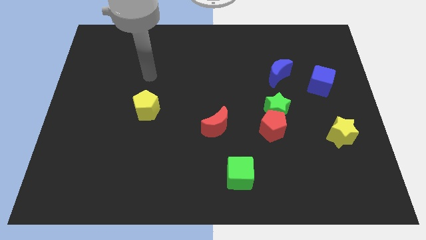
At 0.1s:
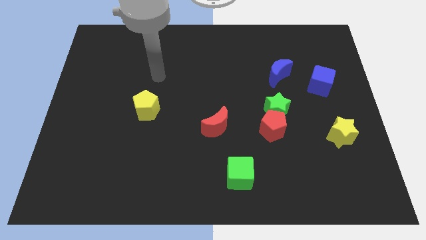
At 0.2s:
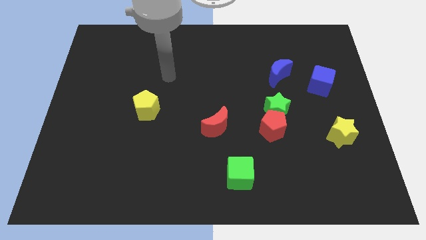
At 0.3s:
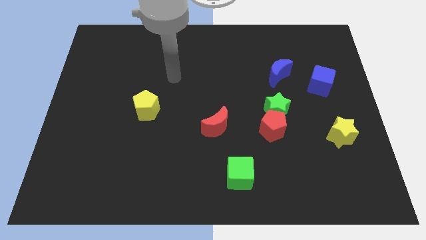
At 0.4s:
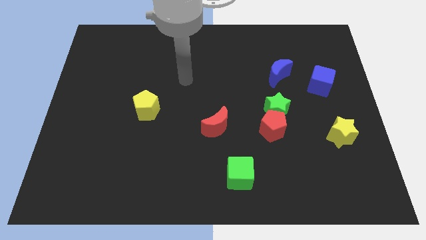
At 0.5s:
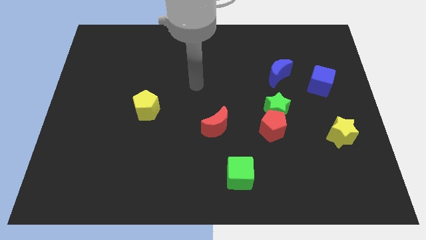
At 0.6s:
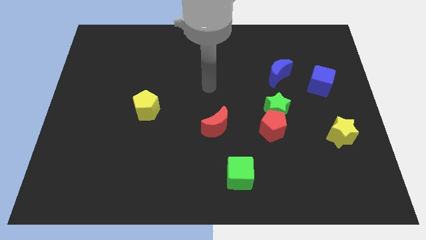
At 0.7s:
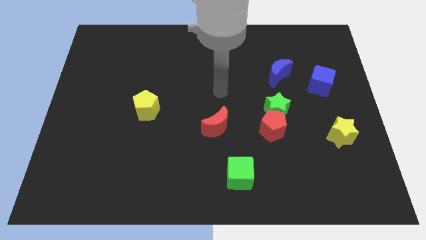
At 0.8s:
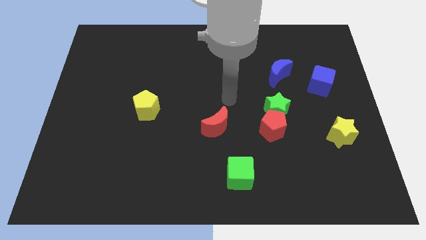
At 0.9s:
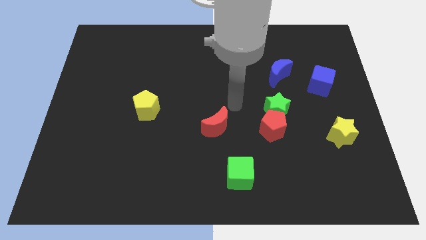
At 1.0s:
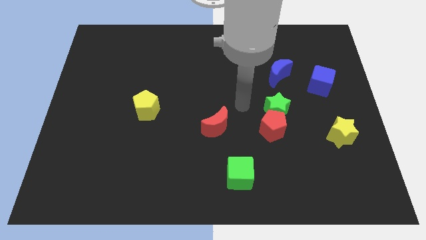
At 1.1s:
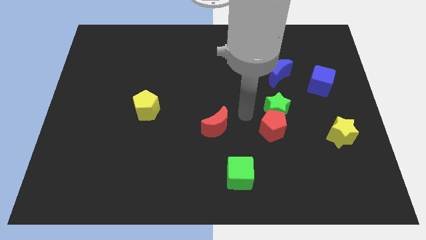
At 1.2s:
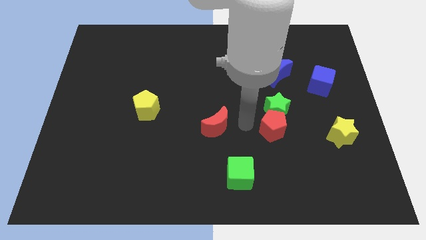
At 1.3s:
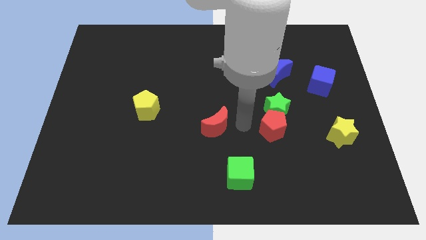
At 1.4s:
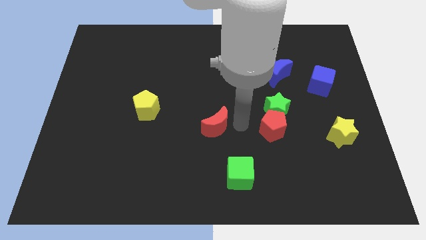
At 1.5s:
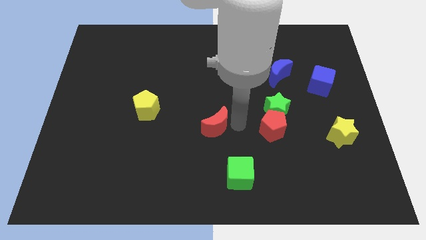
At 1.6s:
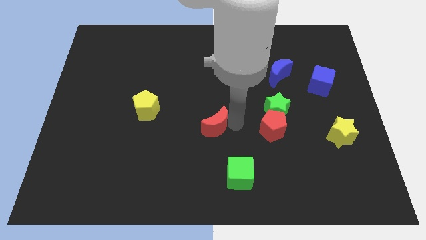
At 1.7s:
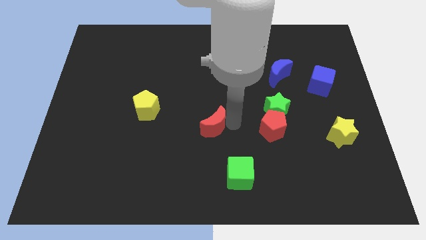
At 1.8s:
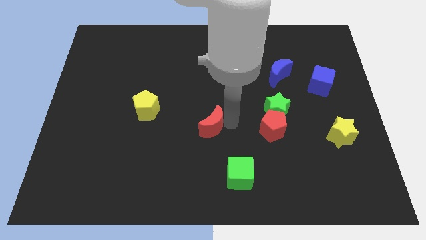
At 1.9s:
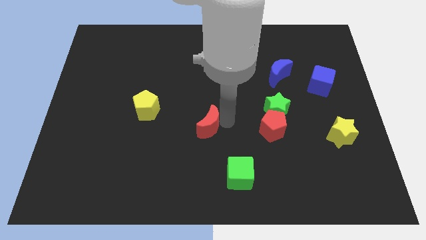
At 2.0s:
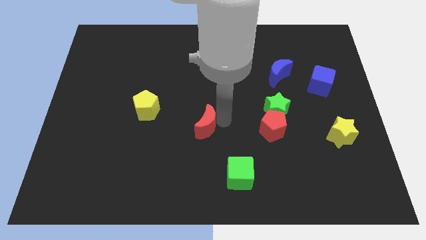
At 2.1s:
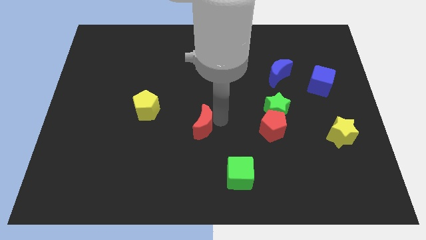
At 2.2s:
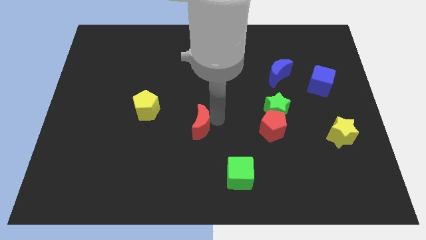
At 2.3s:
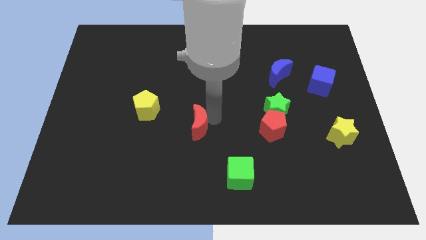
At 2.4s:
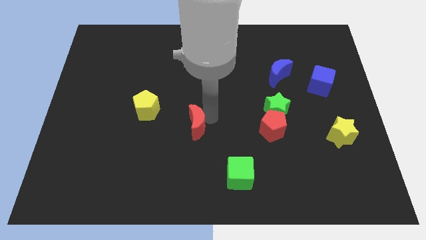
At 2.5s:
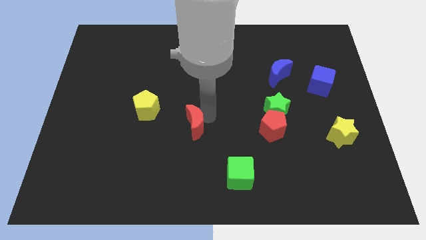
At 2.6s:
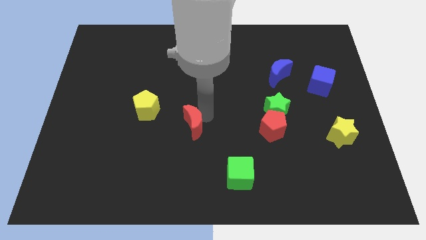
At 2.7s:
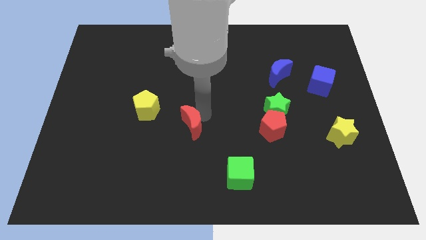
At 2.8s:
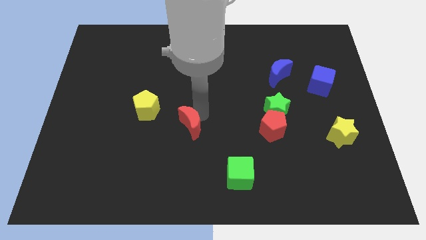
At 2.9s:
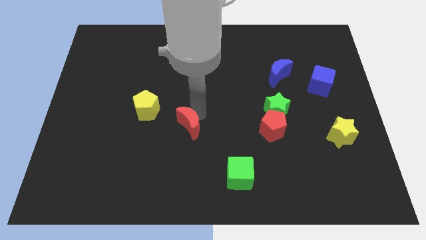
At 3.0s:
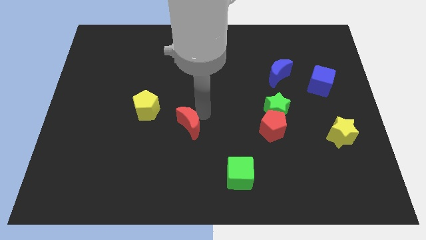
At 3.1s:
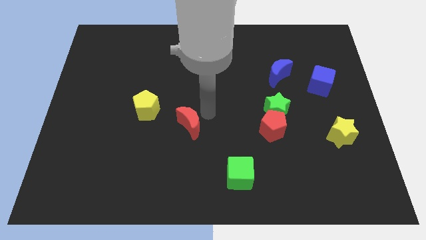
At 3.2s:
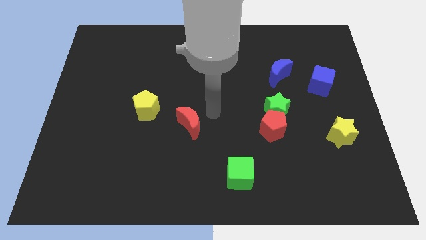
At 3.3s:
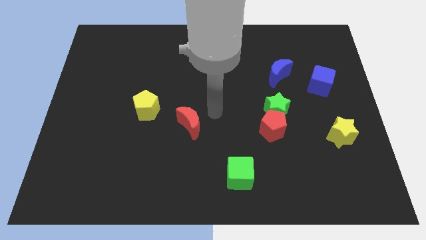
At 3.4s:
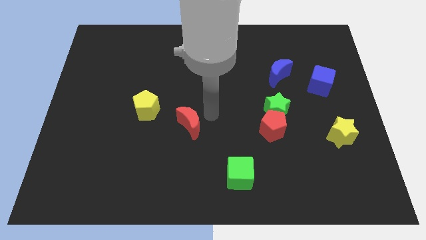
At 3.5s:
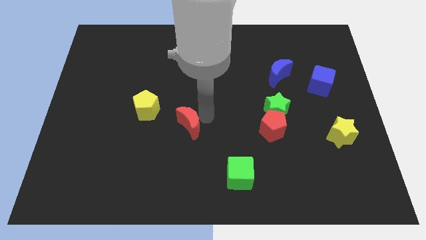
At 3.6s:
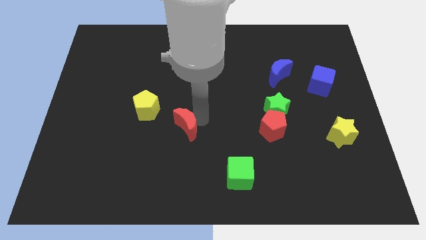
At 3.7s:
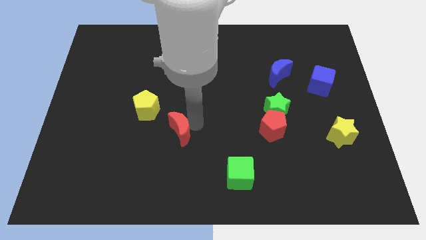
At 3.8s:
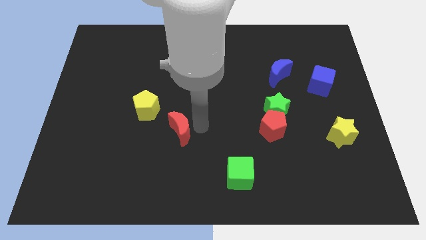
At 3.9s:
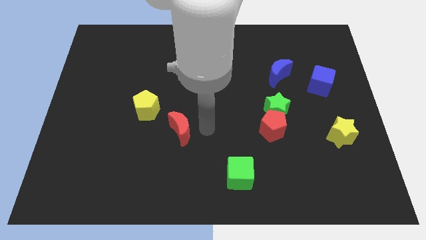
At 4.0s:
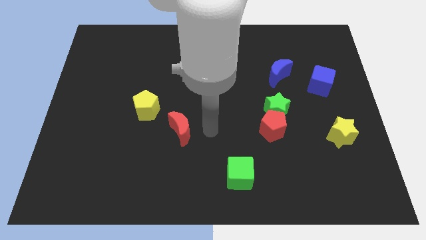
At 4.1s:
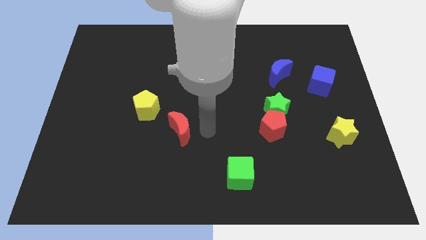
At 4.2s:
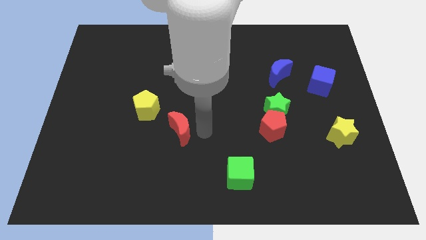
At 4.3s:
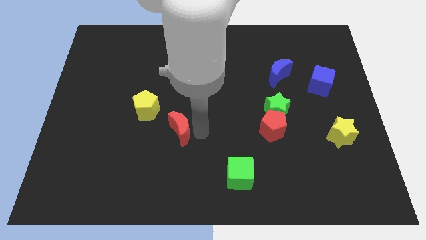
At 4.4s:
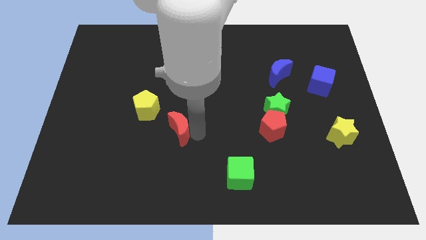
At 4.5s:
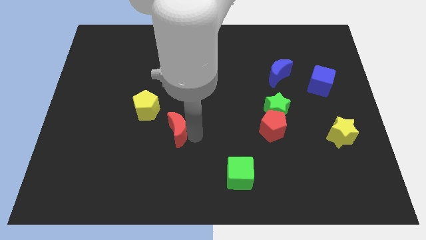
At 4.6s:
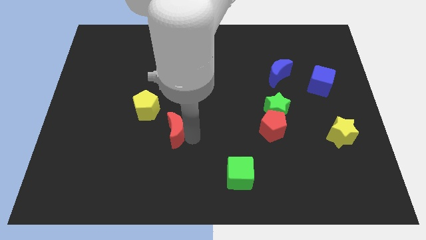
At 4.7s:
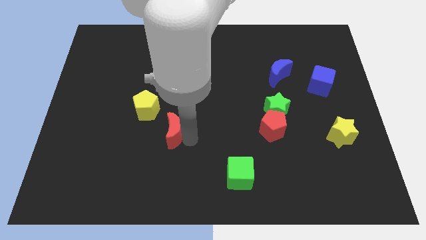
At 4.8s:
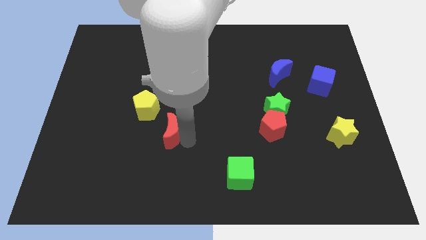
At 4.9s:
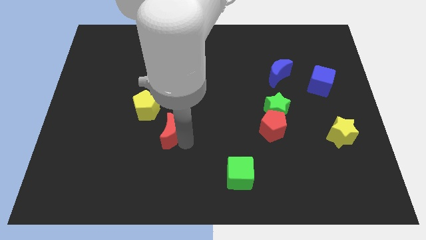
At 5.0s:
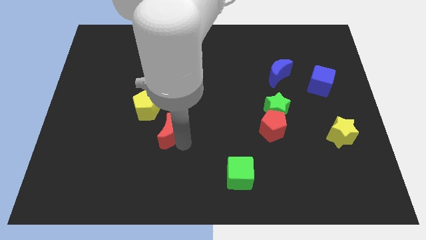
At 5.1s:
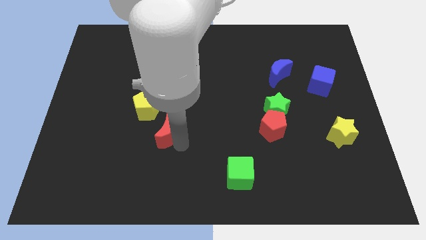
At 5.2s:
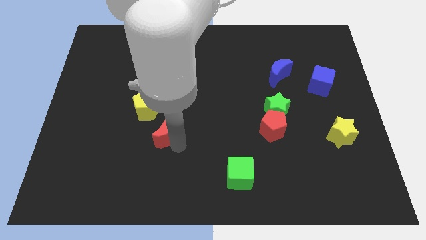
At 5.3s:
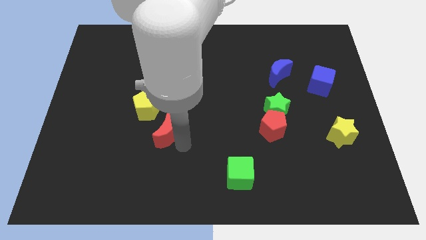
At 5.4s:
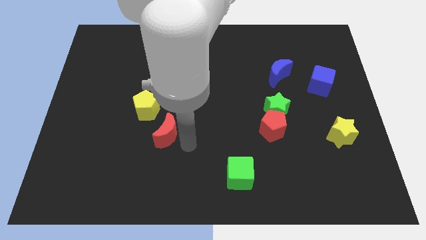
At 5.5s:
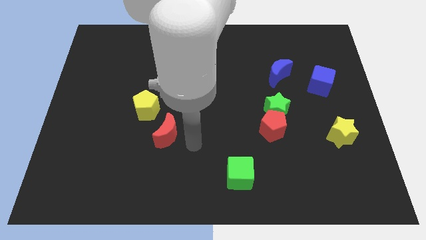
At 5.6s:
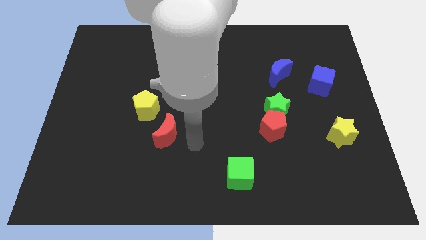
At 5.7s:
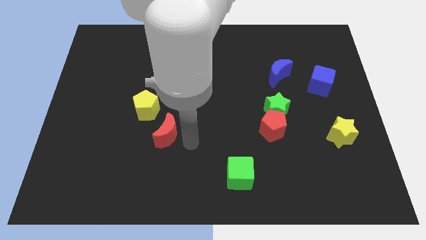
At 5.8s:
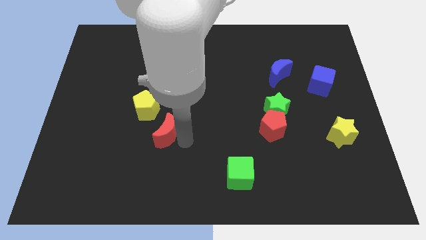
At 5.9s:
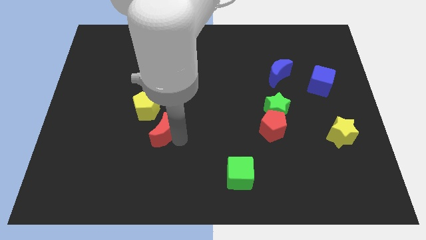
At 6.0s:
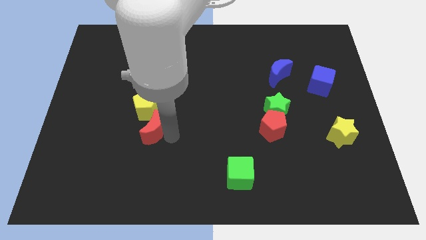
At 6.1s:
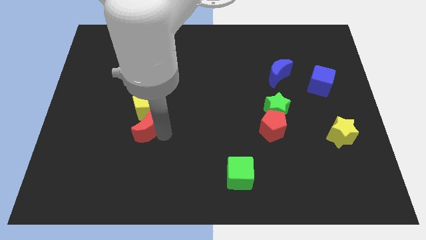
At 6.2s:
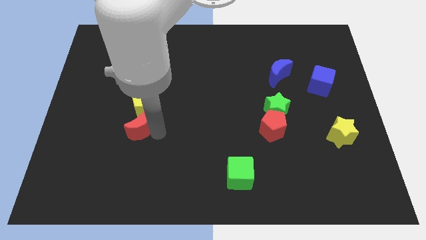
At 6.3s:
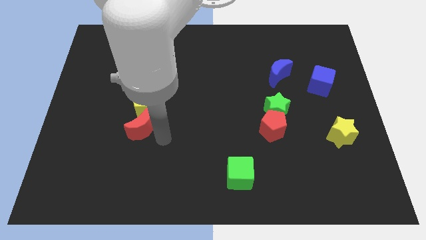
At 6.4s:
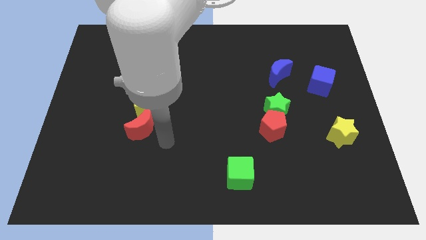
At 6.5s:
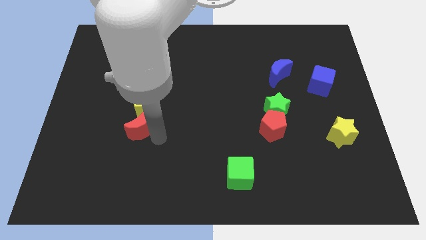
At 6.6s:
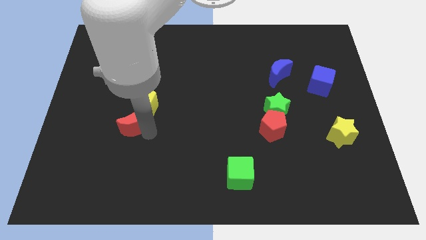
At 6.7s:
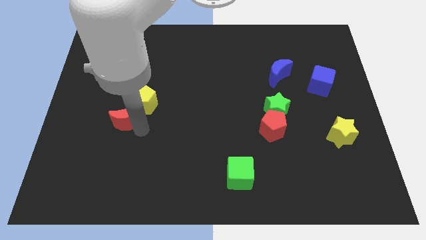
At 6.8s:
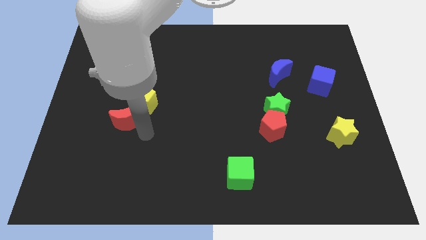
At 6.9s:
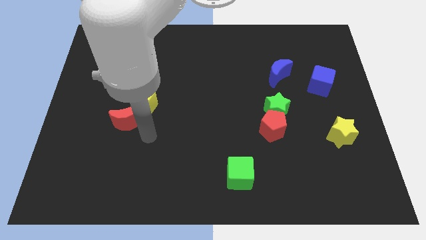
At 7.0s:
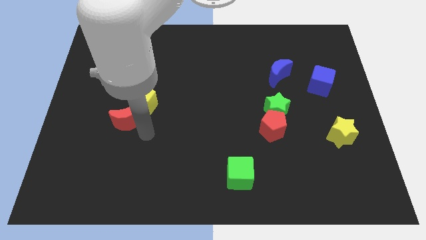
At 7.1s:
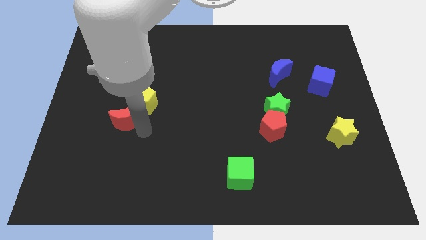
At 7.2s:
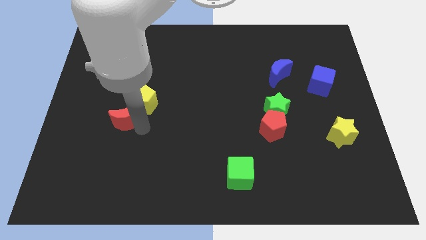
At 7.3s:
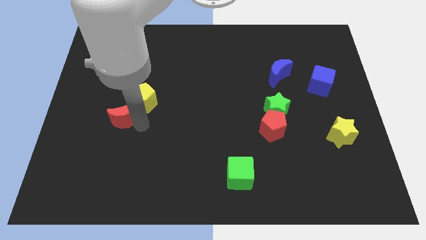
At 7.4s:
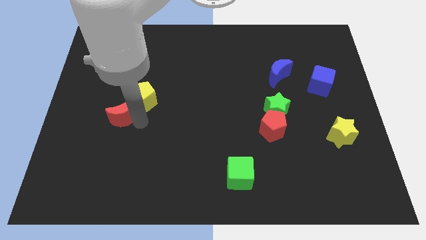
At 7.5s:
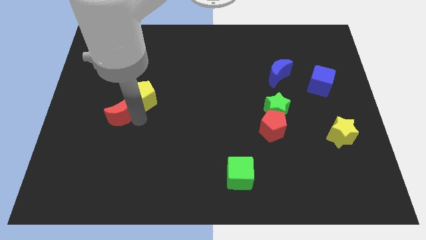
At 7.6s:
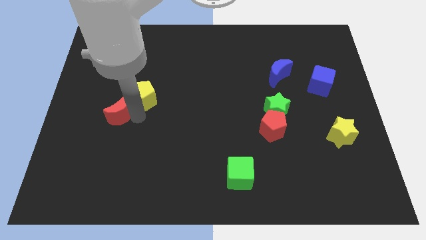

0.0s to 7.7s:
slide the red moon left of the yellow pentagon
